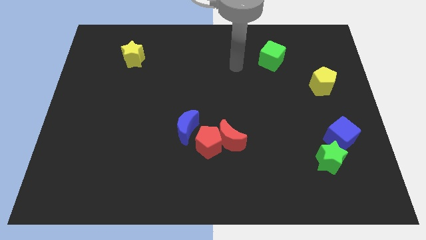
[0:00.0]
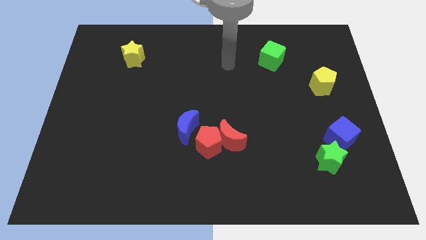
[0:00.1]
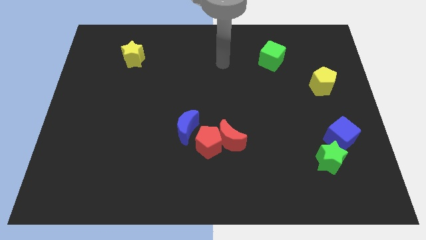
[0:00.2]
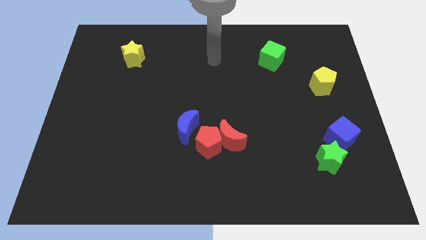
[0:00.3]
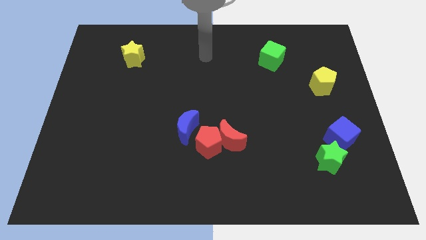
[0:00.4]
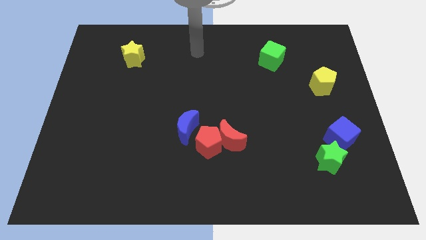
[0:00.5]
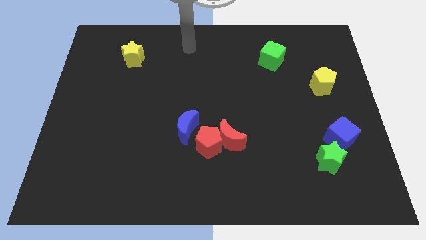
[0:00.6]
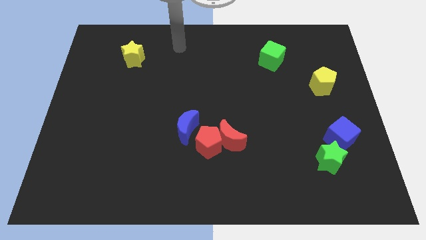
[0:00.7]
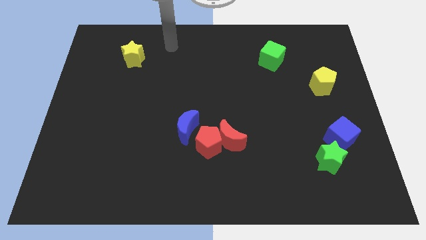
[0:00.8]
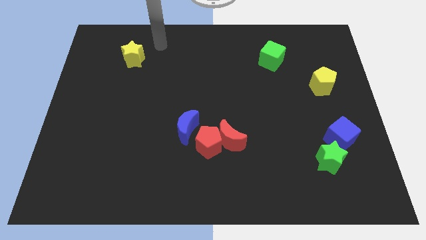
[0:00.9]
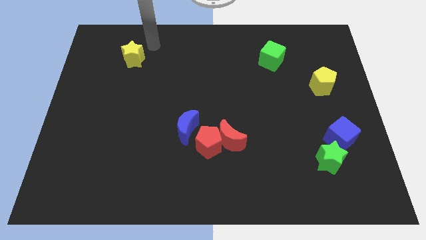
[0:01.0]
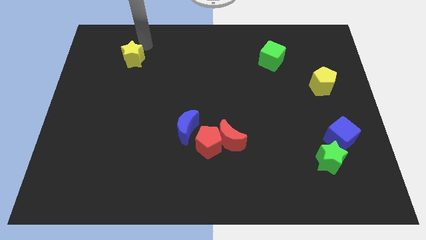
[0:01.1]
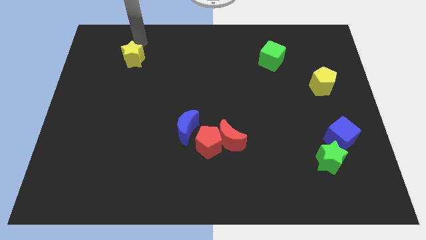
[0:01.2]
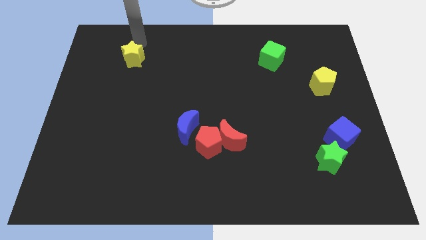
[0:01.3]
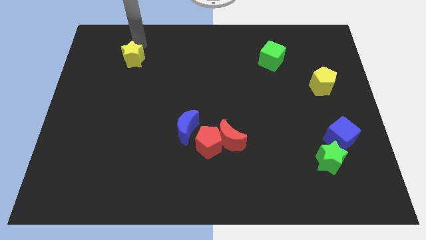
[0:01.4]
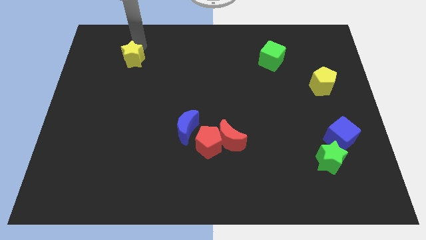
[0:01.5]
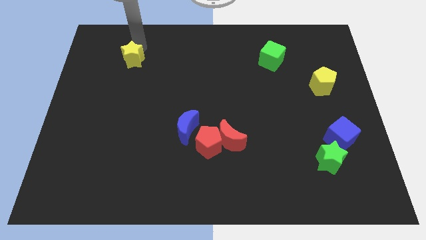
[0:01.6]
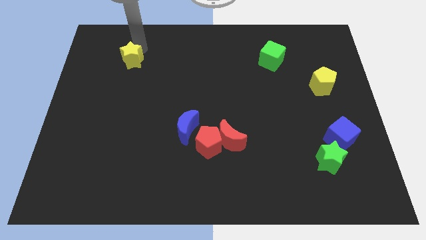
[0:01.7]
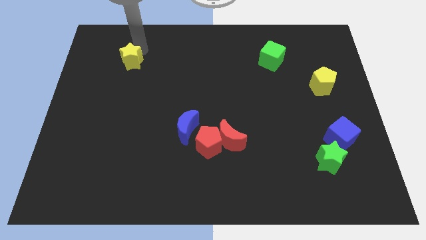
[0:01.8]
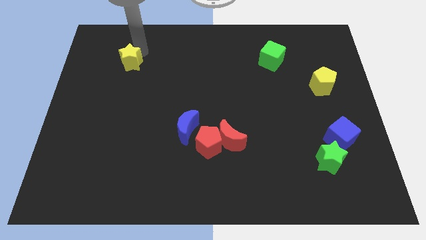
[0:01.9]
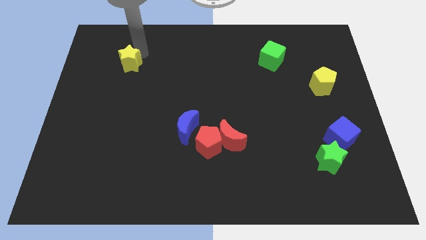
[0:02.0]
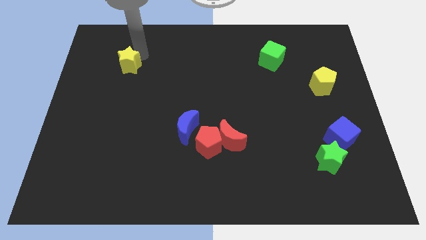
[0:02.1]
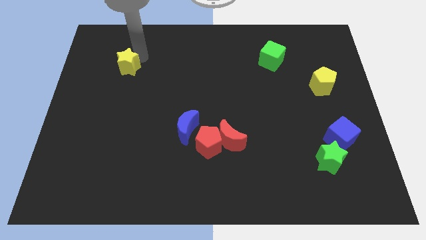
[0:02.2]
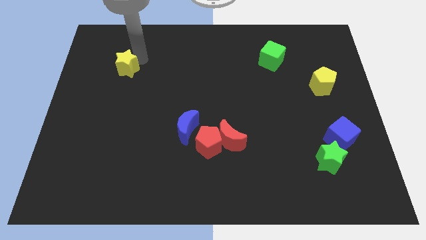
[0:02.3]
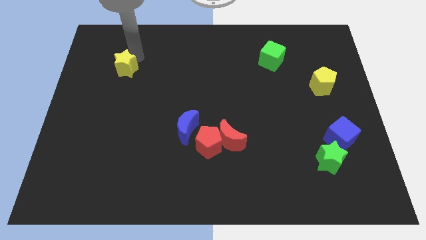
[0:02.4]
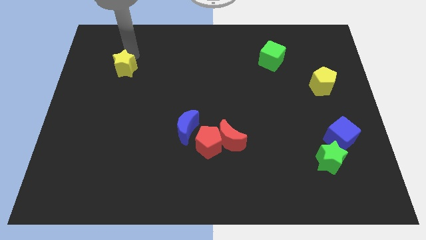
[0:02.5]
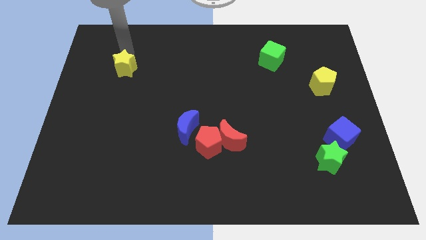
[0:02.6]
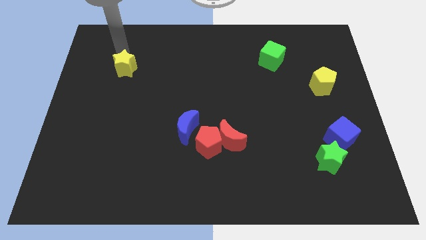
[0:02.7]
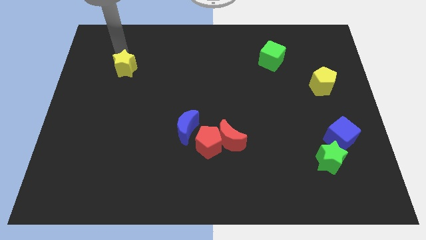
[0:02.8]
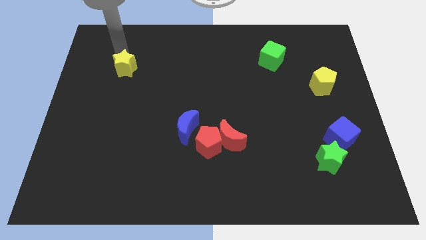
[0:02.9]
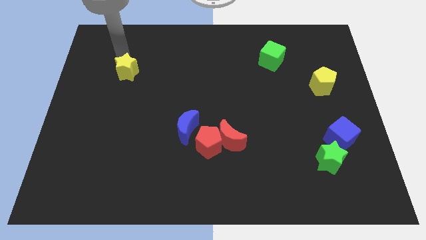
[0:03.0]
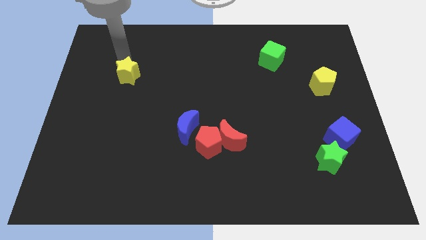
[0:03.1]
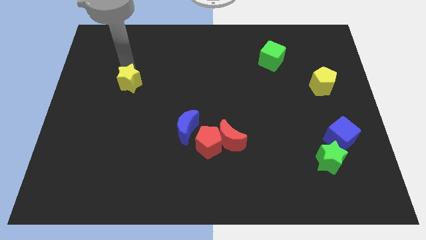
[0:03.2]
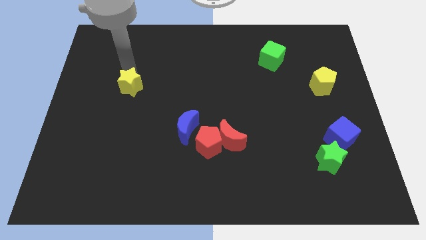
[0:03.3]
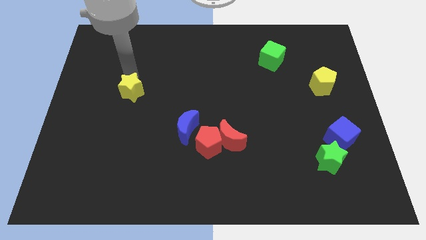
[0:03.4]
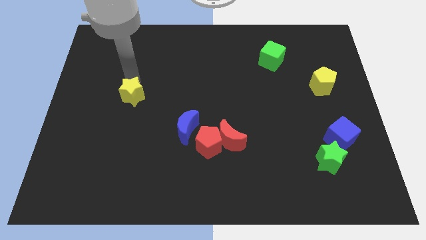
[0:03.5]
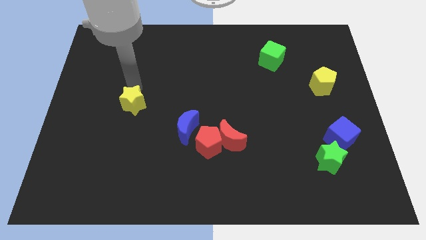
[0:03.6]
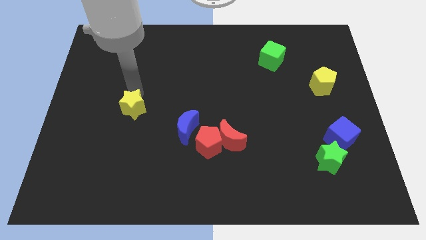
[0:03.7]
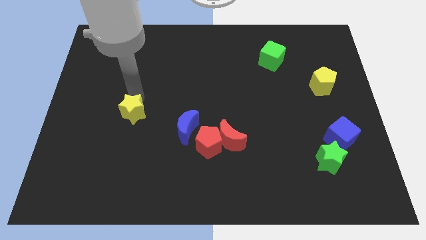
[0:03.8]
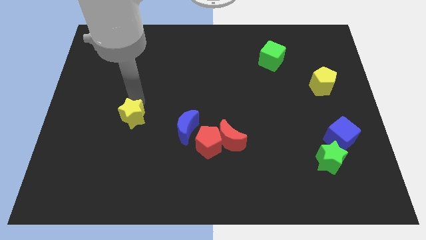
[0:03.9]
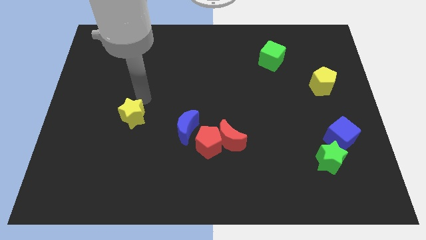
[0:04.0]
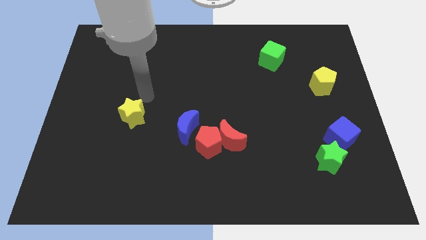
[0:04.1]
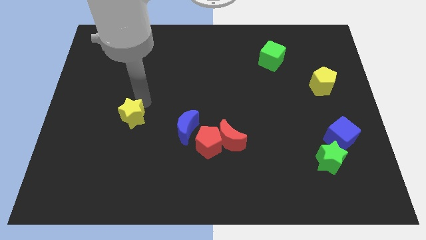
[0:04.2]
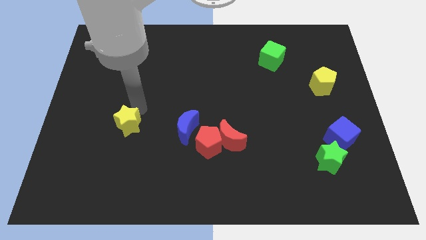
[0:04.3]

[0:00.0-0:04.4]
move the yellow star down

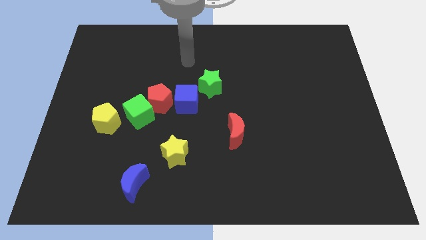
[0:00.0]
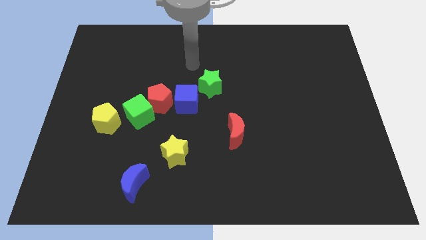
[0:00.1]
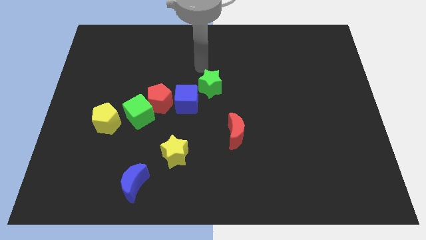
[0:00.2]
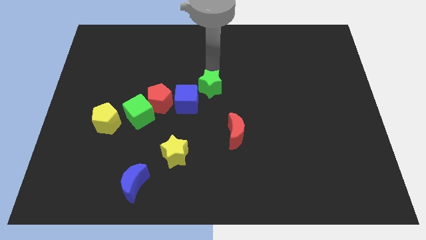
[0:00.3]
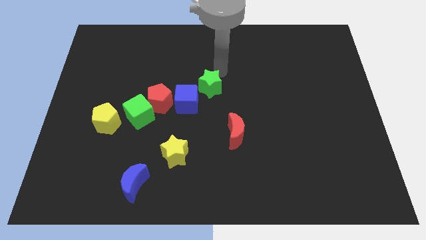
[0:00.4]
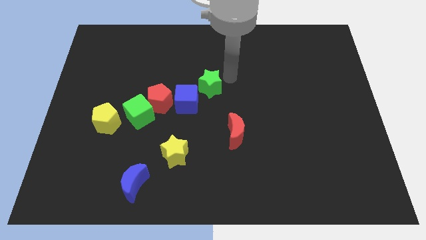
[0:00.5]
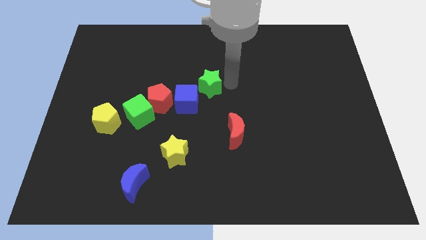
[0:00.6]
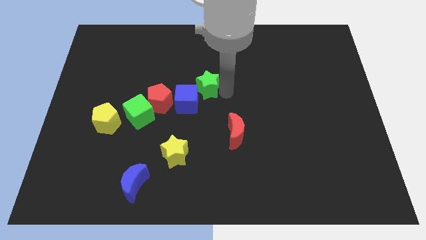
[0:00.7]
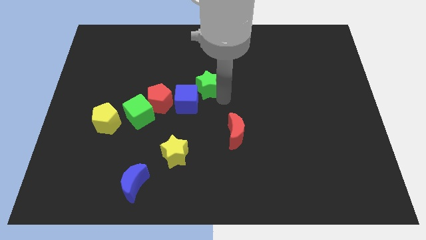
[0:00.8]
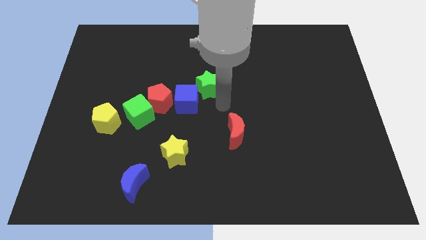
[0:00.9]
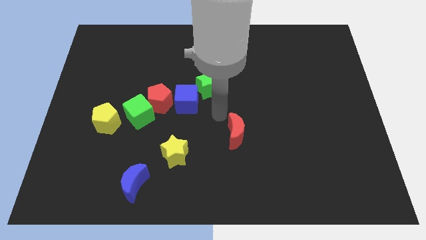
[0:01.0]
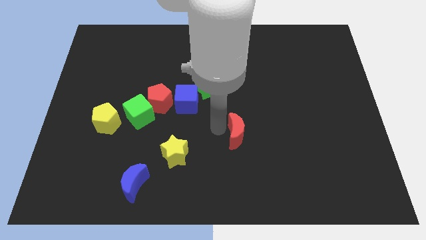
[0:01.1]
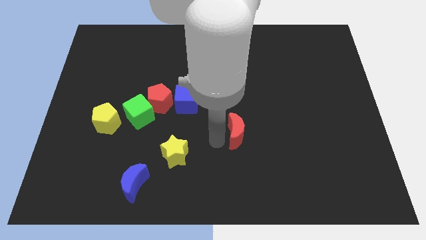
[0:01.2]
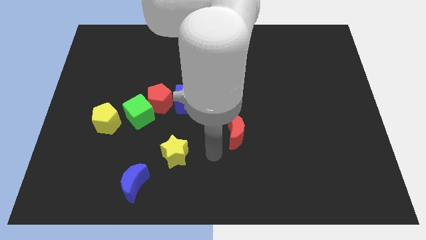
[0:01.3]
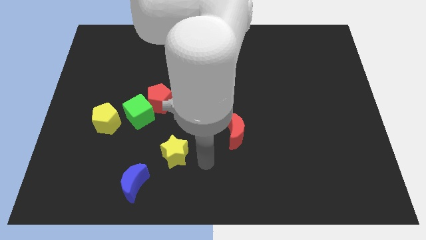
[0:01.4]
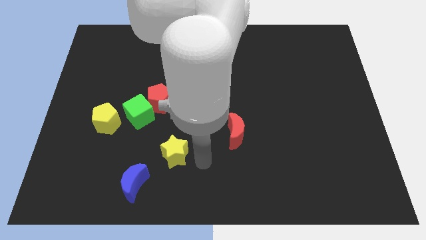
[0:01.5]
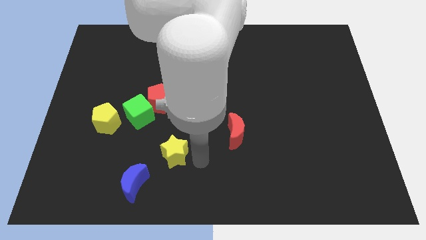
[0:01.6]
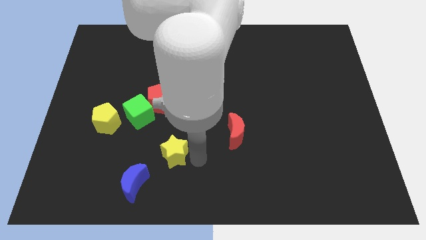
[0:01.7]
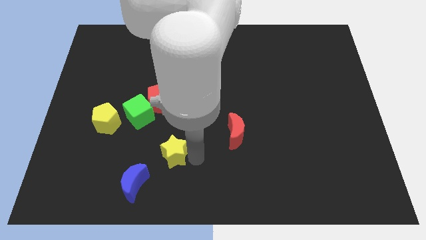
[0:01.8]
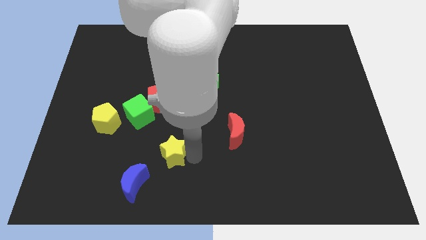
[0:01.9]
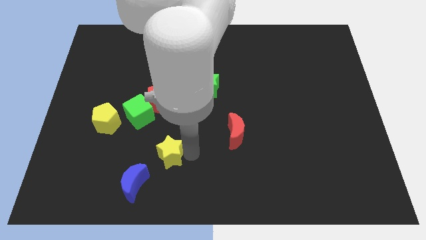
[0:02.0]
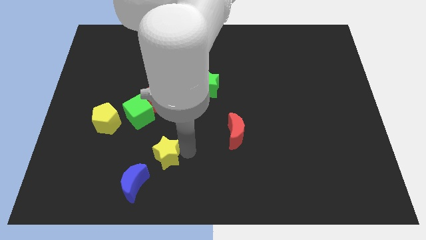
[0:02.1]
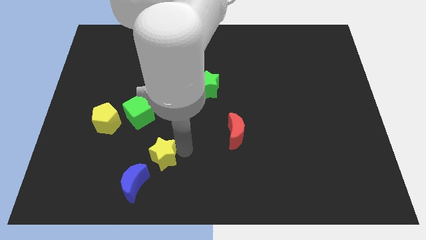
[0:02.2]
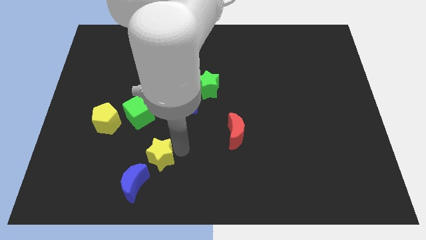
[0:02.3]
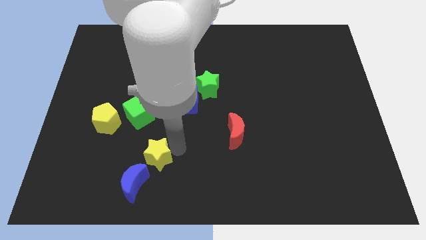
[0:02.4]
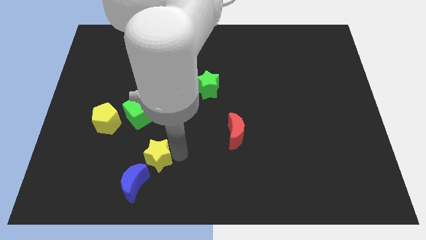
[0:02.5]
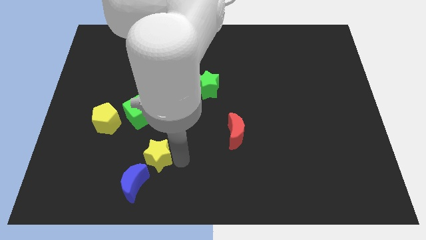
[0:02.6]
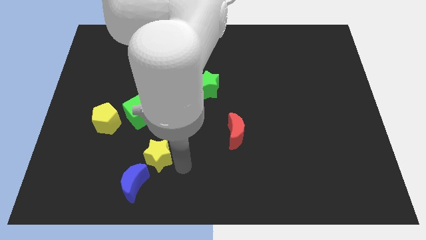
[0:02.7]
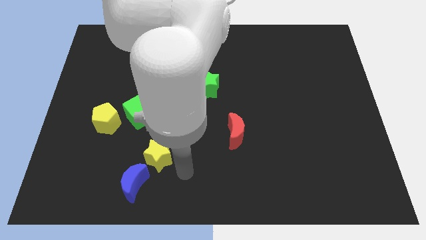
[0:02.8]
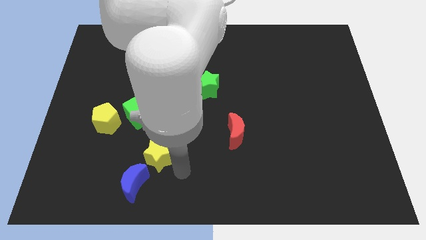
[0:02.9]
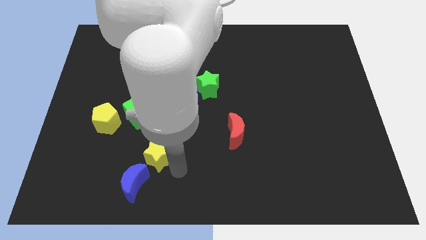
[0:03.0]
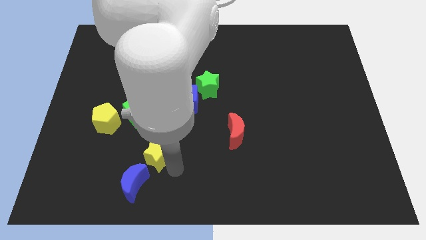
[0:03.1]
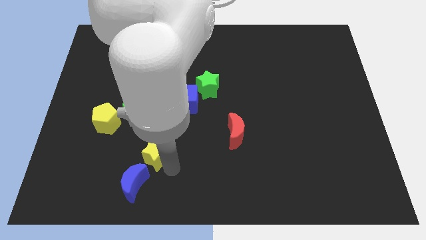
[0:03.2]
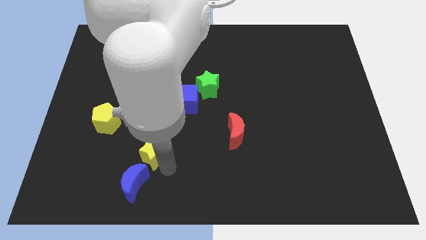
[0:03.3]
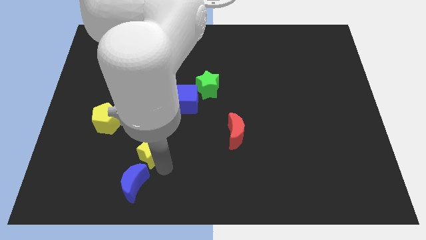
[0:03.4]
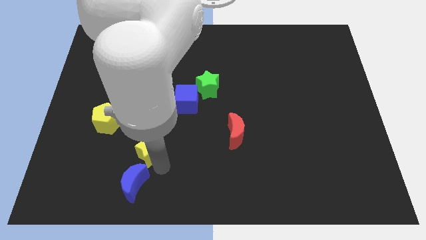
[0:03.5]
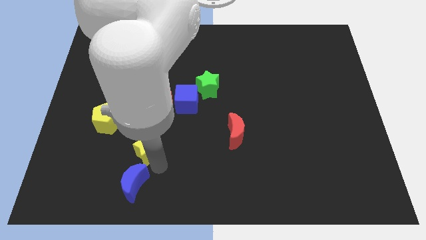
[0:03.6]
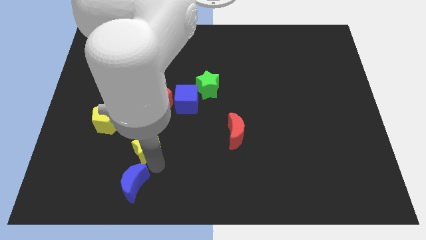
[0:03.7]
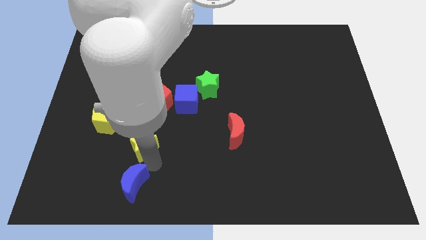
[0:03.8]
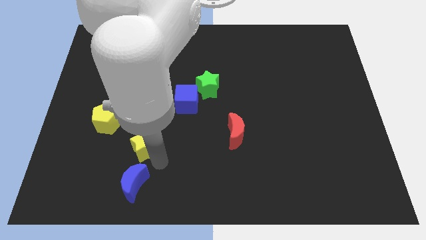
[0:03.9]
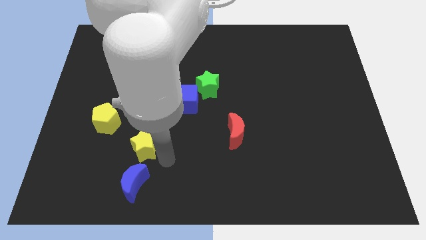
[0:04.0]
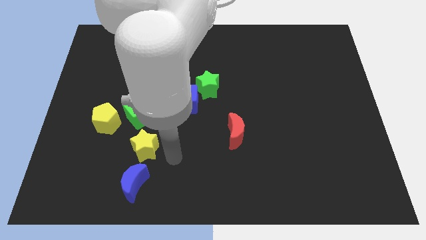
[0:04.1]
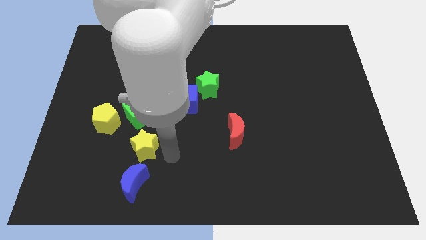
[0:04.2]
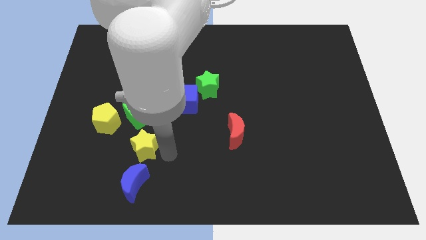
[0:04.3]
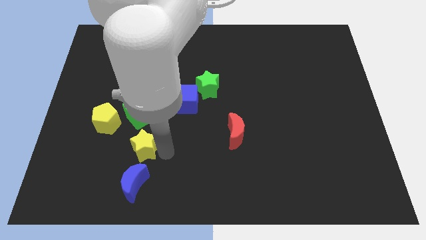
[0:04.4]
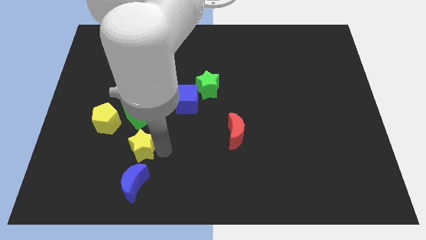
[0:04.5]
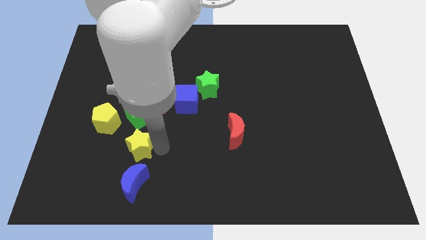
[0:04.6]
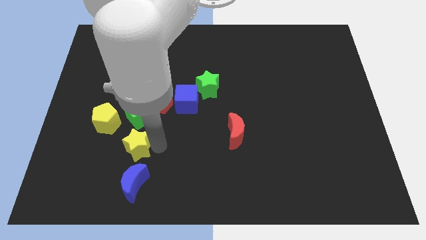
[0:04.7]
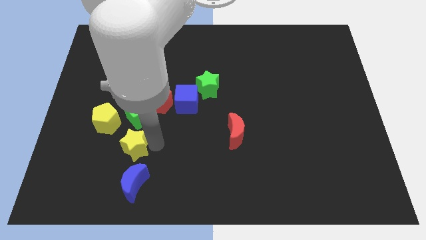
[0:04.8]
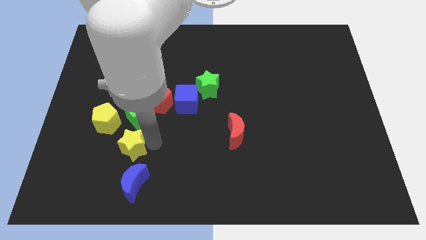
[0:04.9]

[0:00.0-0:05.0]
slightly slide the yellow star diagonally up and to the left
